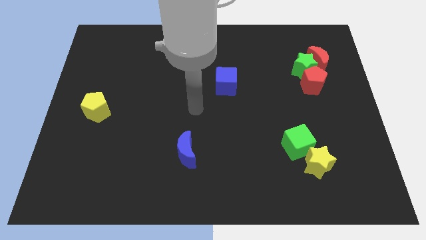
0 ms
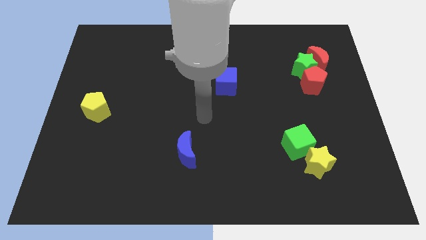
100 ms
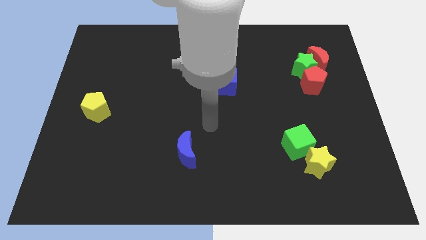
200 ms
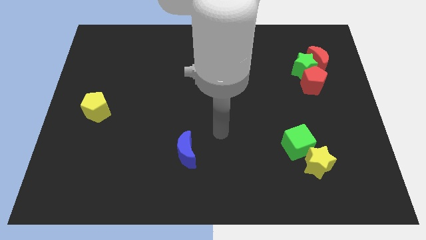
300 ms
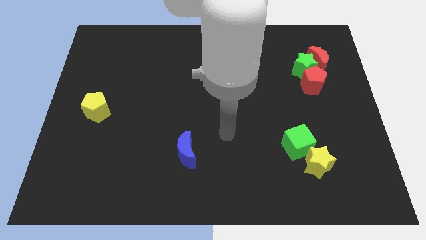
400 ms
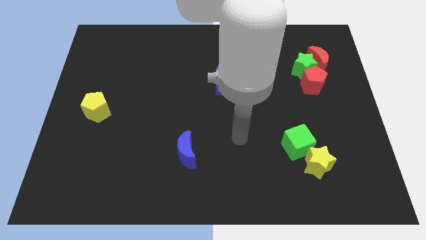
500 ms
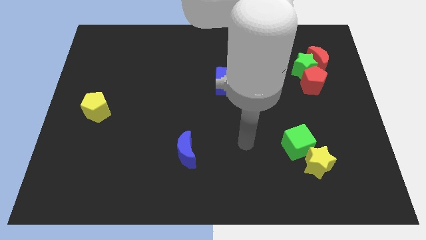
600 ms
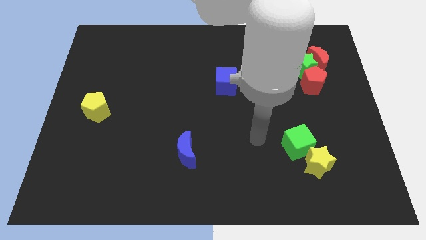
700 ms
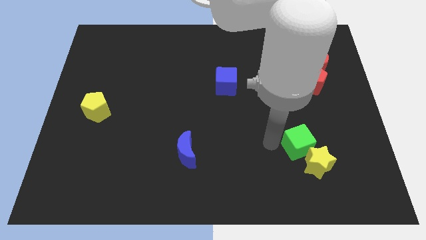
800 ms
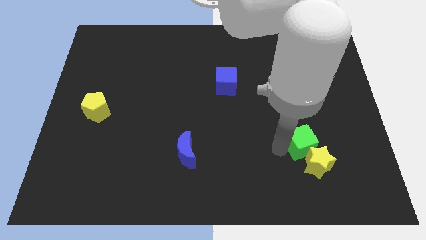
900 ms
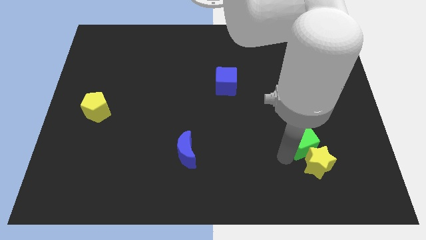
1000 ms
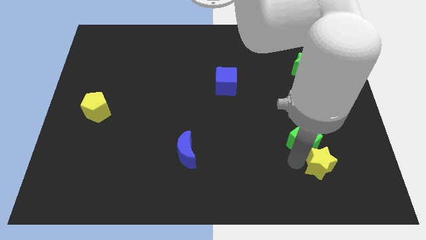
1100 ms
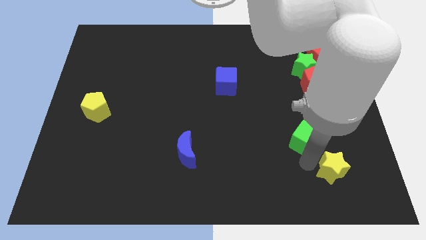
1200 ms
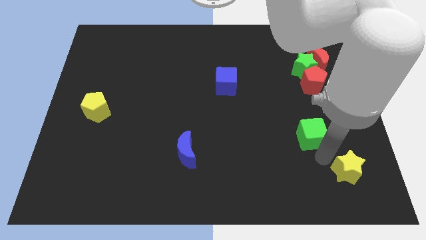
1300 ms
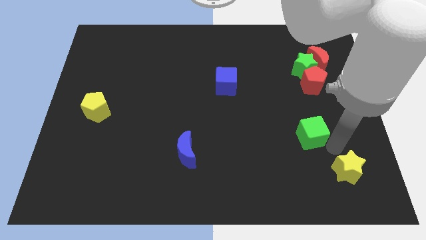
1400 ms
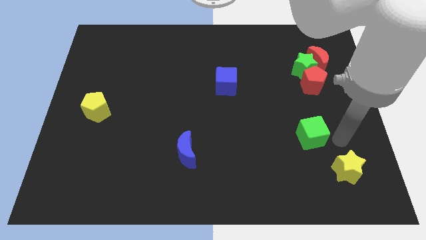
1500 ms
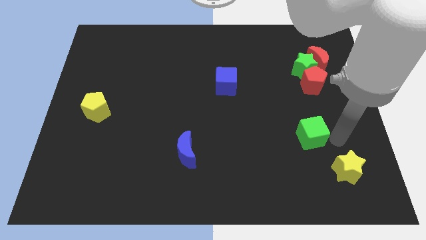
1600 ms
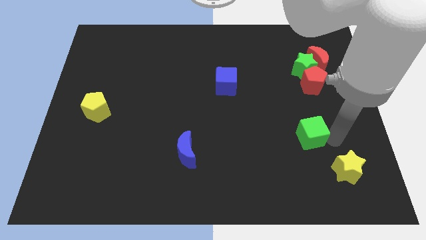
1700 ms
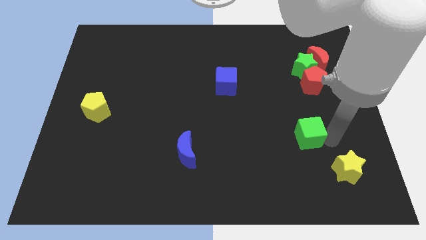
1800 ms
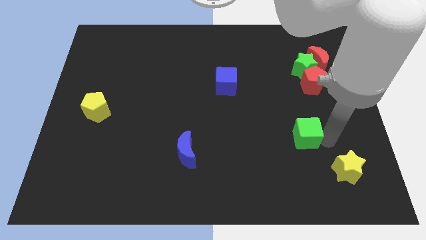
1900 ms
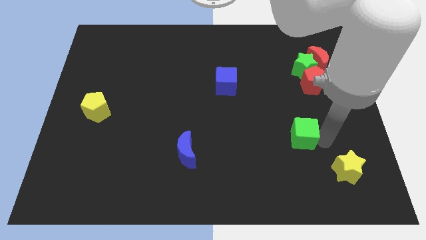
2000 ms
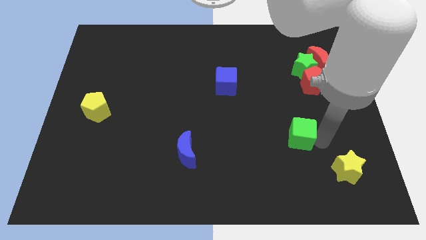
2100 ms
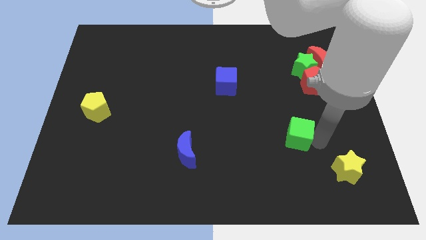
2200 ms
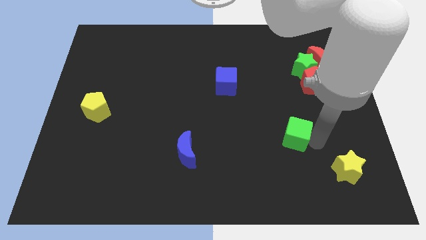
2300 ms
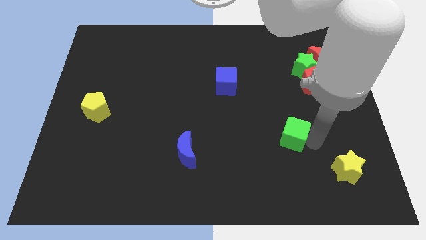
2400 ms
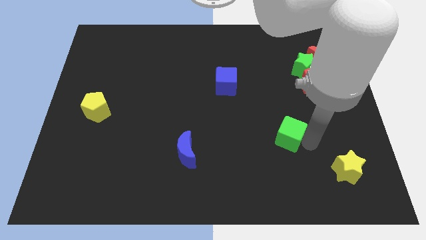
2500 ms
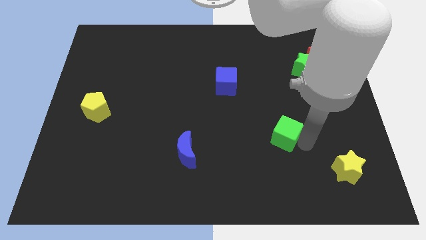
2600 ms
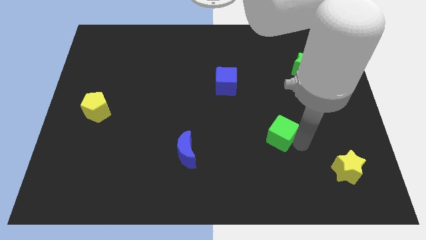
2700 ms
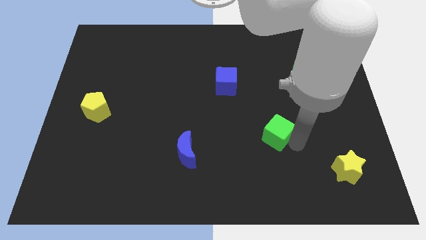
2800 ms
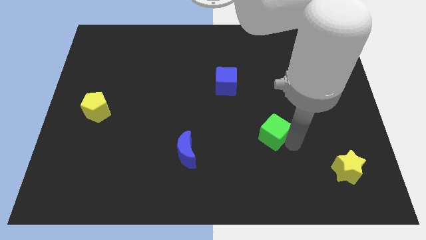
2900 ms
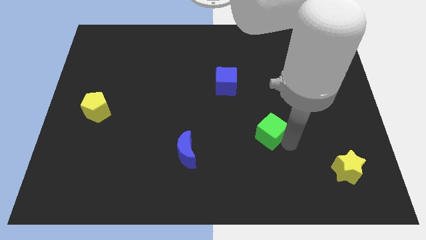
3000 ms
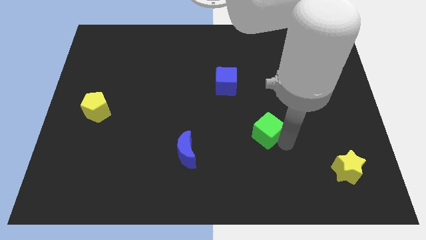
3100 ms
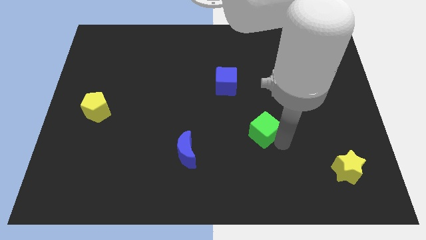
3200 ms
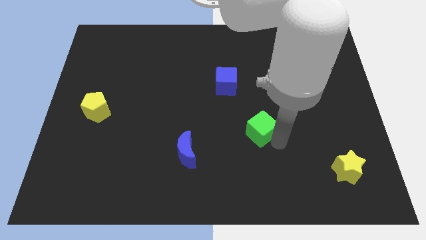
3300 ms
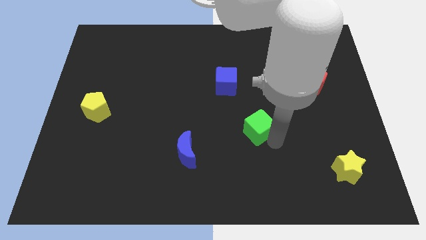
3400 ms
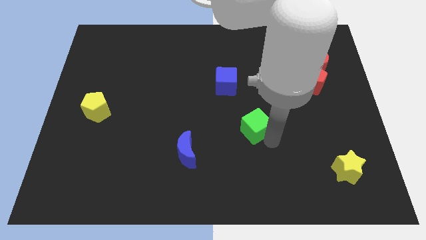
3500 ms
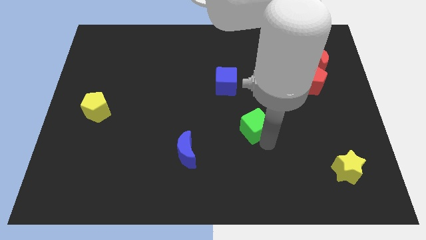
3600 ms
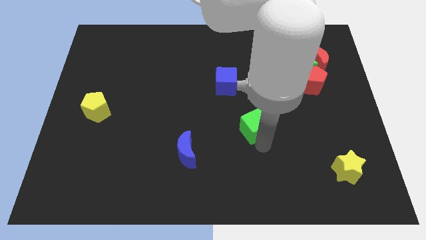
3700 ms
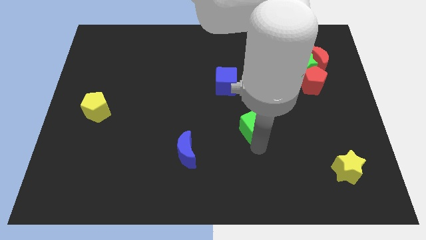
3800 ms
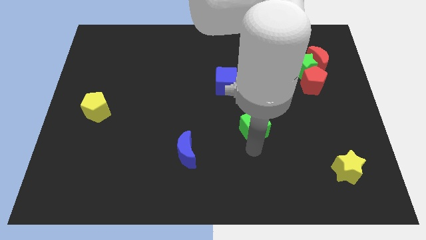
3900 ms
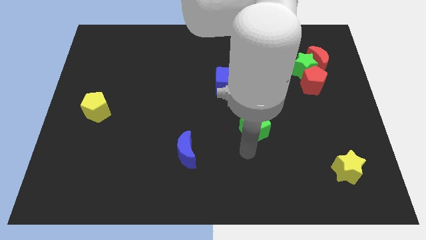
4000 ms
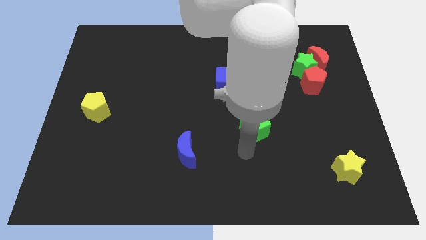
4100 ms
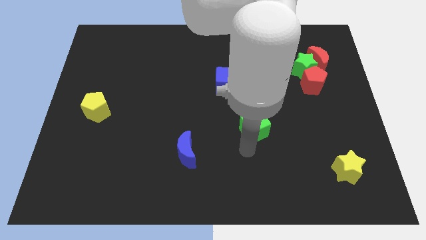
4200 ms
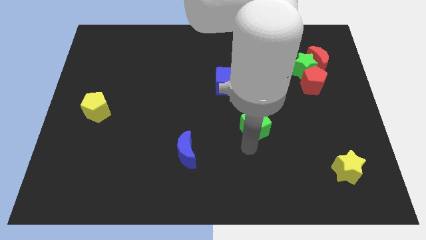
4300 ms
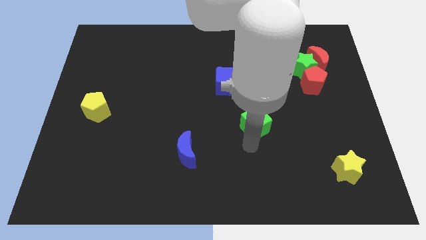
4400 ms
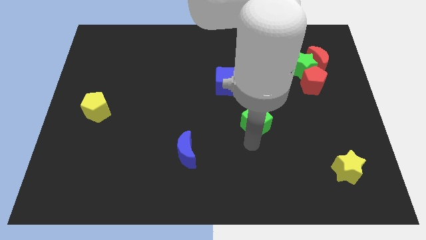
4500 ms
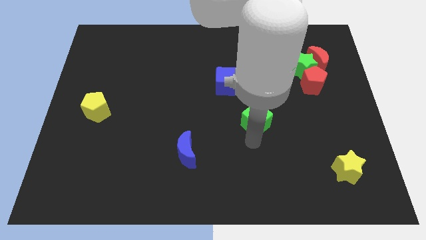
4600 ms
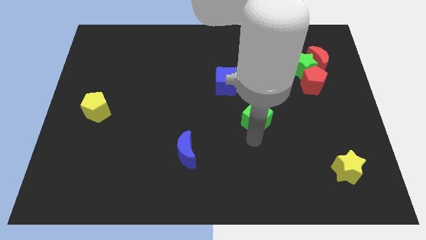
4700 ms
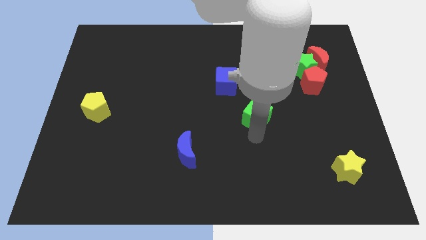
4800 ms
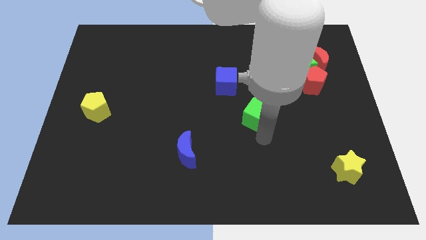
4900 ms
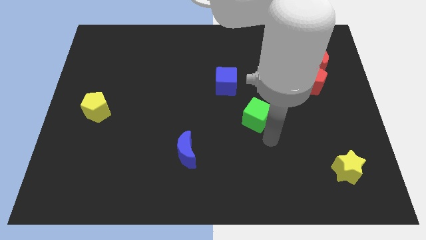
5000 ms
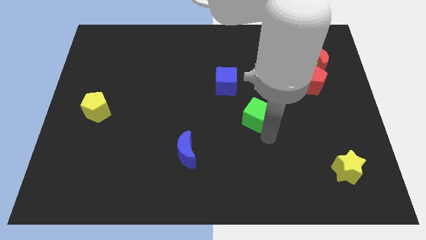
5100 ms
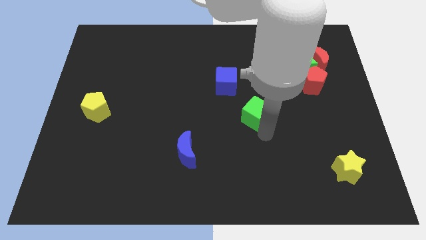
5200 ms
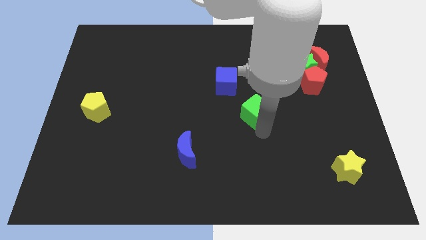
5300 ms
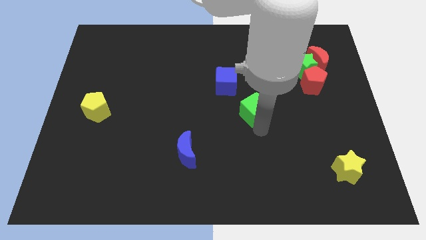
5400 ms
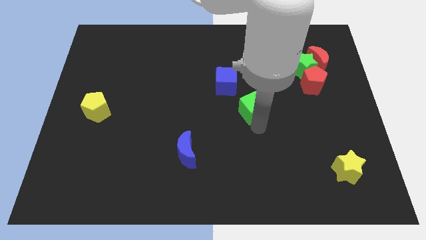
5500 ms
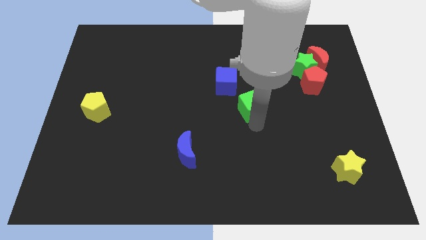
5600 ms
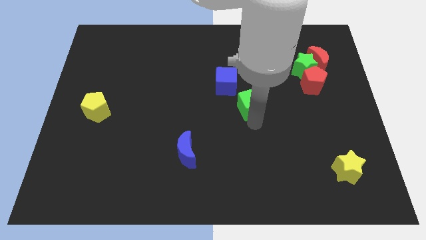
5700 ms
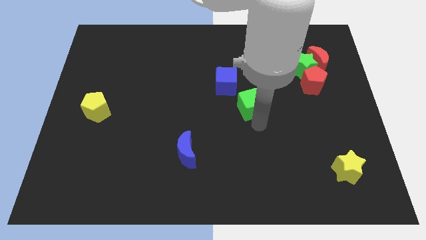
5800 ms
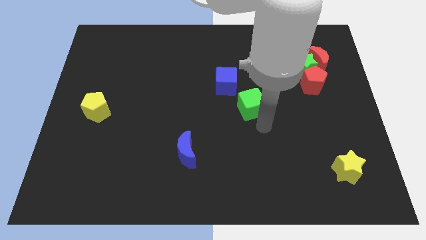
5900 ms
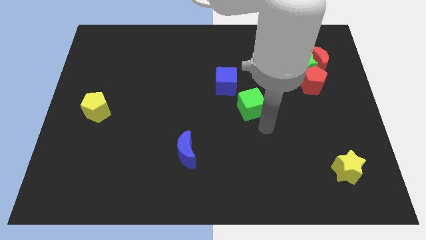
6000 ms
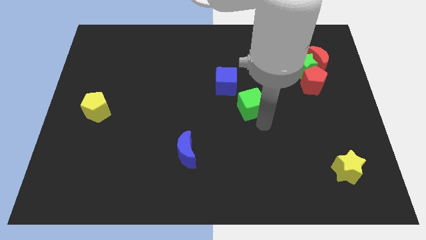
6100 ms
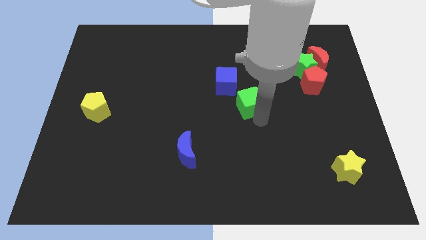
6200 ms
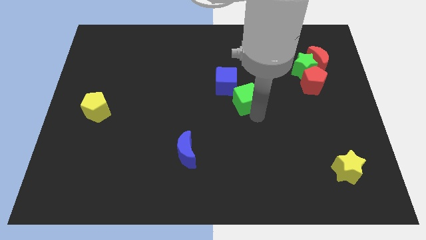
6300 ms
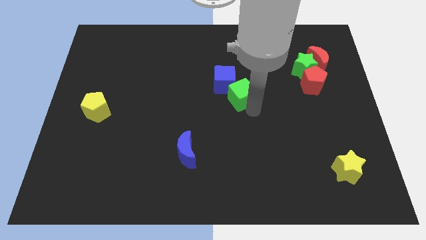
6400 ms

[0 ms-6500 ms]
move the green cube close to the blue cube

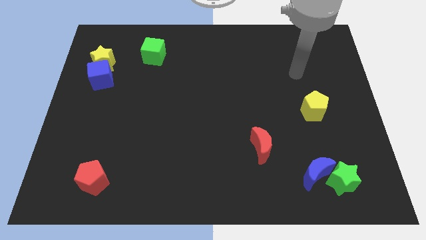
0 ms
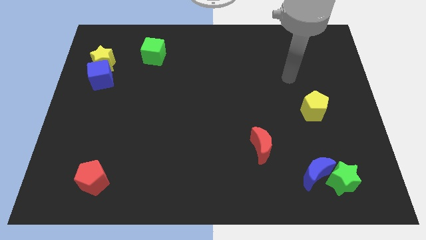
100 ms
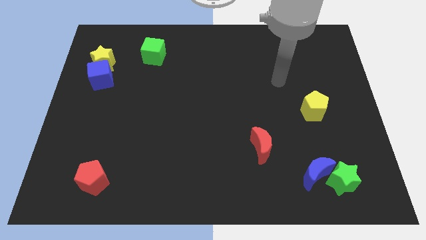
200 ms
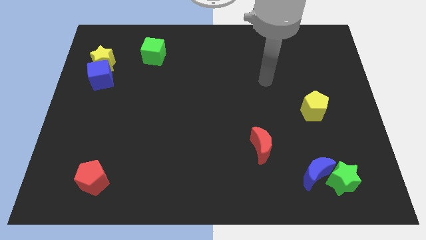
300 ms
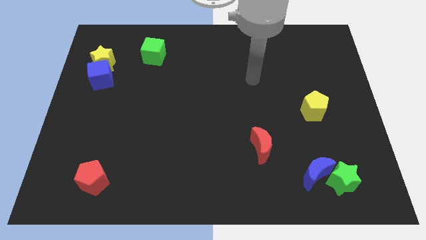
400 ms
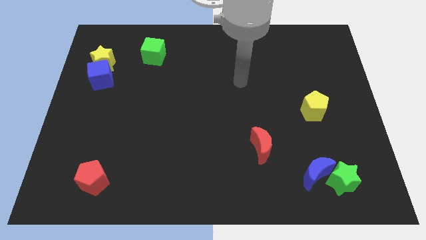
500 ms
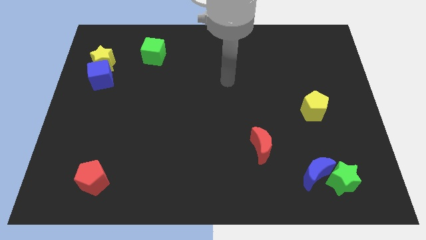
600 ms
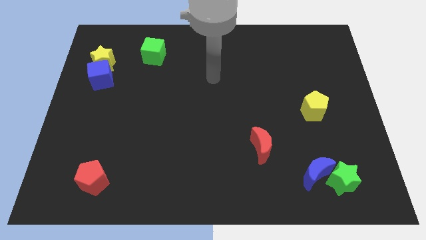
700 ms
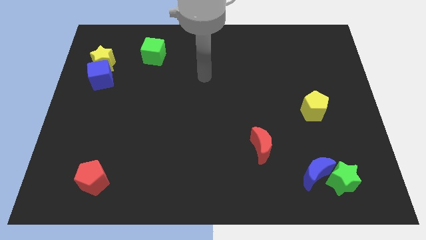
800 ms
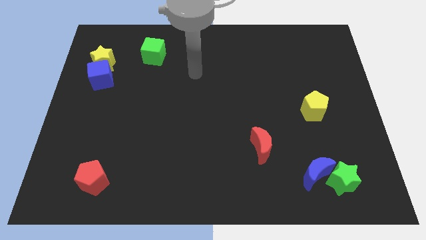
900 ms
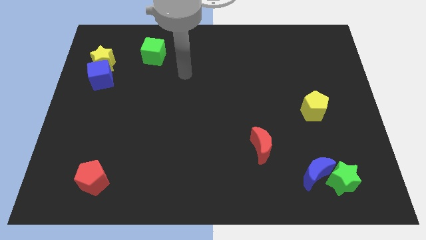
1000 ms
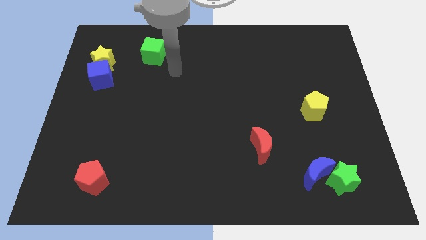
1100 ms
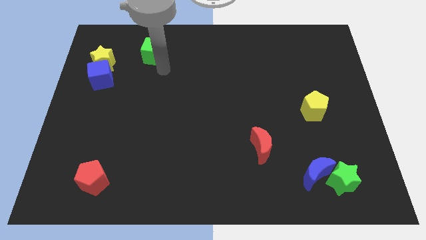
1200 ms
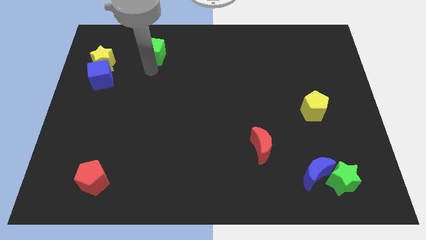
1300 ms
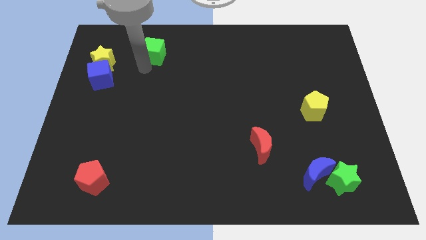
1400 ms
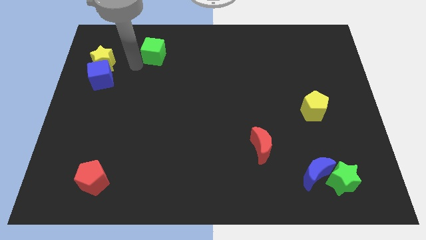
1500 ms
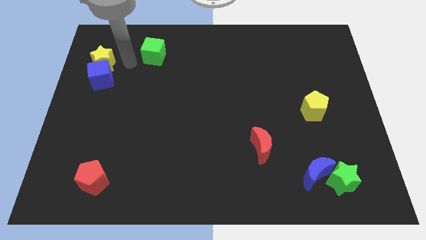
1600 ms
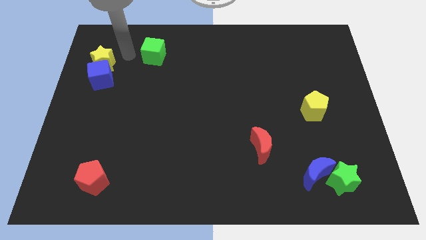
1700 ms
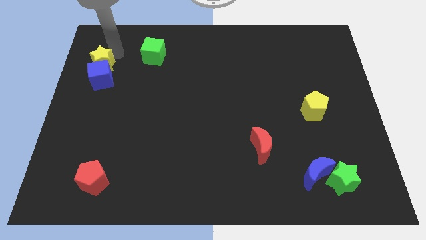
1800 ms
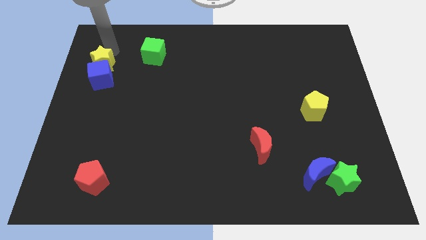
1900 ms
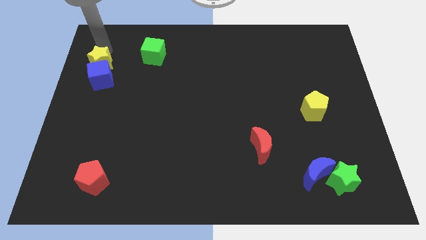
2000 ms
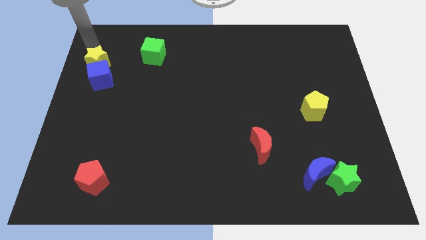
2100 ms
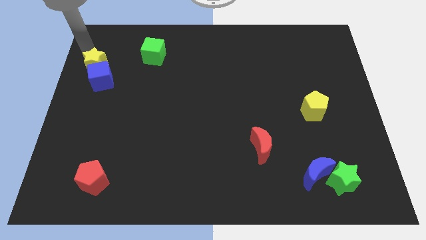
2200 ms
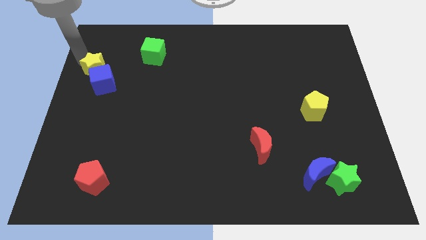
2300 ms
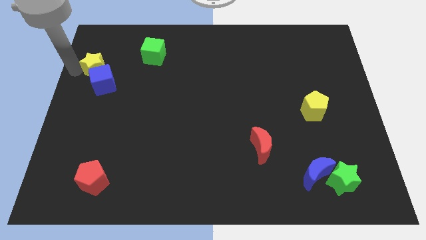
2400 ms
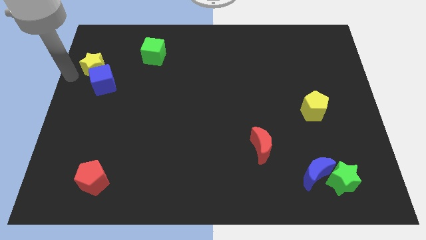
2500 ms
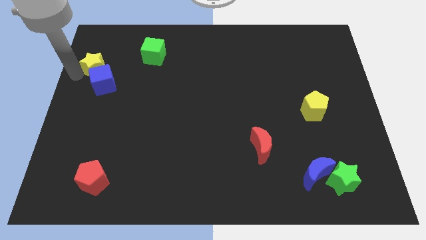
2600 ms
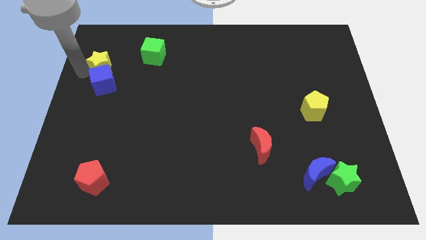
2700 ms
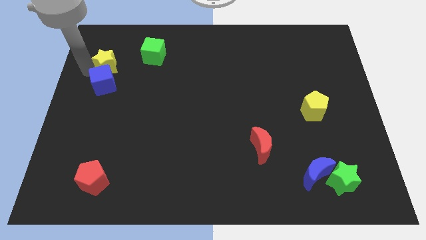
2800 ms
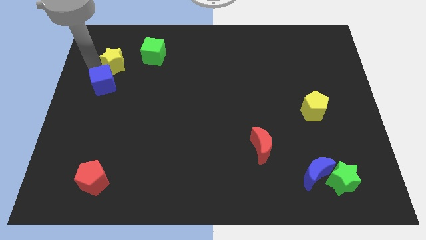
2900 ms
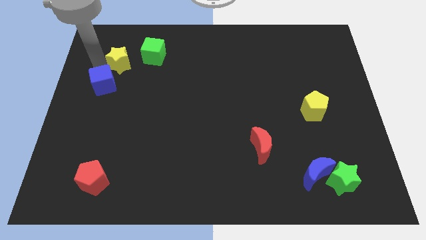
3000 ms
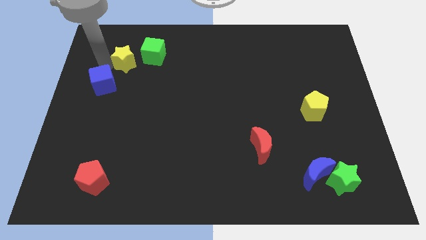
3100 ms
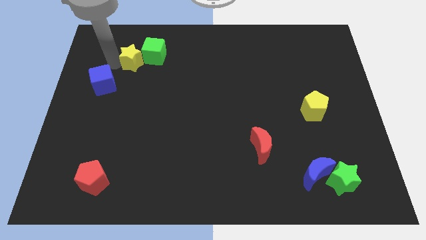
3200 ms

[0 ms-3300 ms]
push the yellow star towards the green cube
